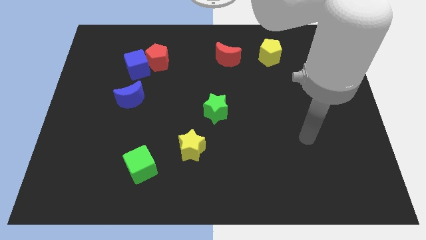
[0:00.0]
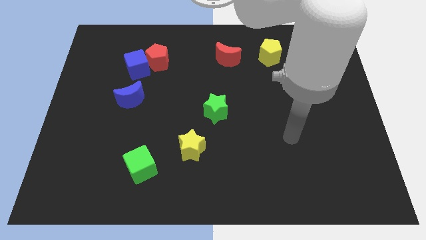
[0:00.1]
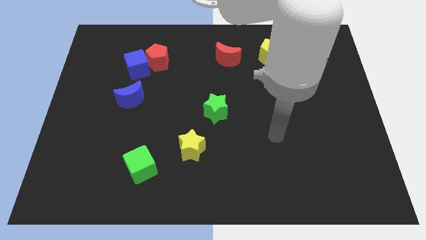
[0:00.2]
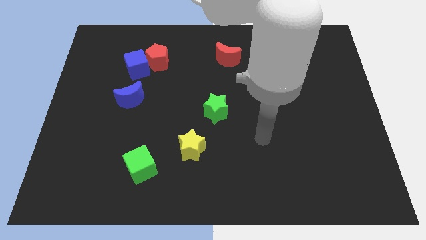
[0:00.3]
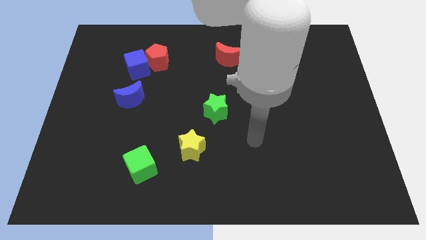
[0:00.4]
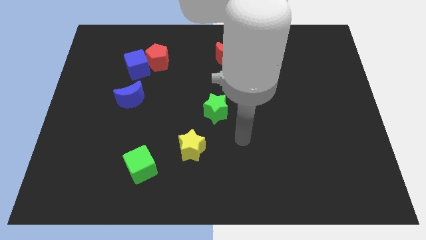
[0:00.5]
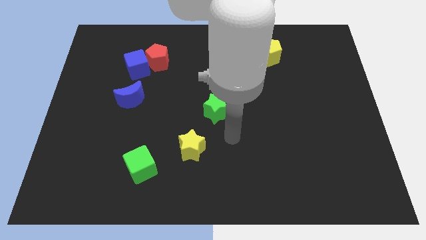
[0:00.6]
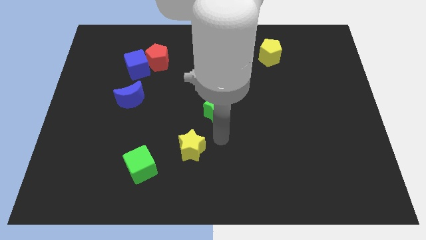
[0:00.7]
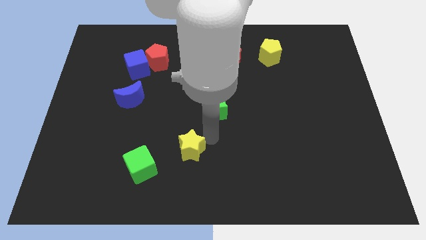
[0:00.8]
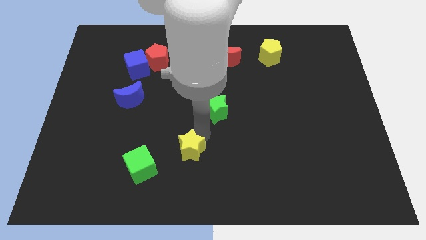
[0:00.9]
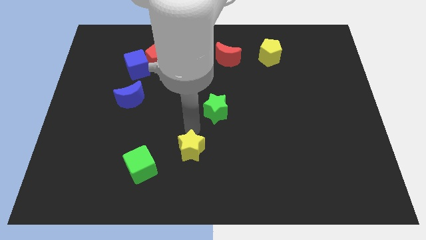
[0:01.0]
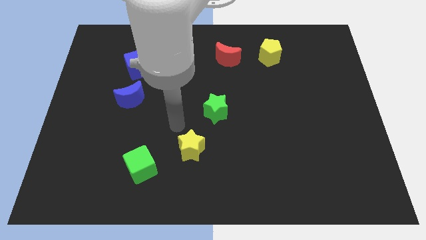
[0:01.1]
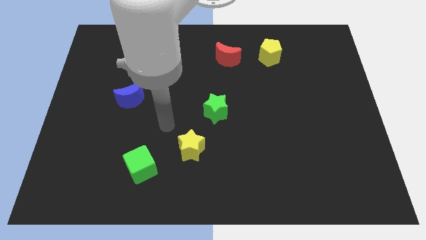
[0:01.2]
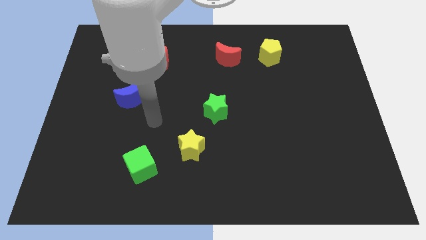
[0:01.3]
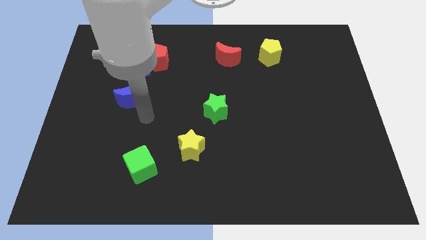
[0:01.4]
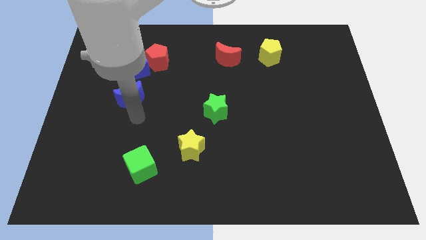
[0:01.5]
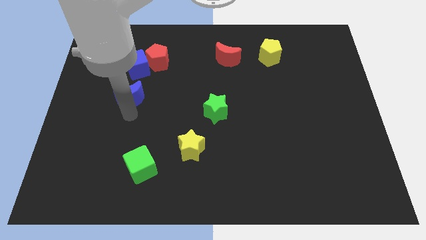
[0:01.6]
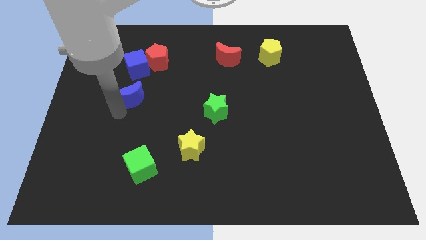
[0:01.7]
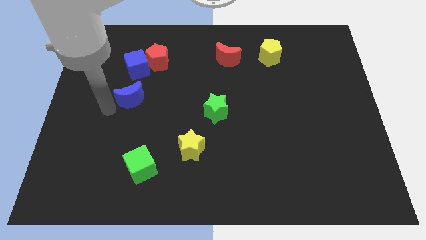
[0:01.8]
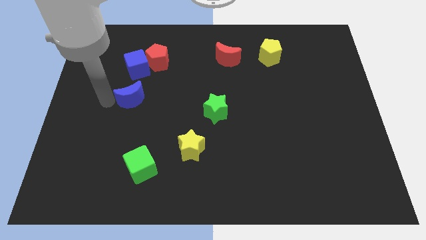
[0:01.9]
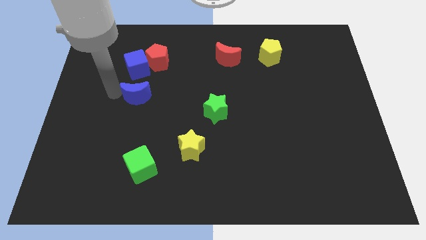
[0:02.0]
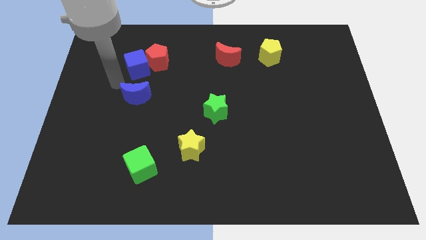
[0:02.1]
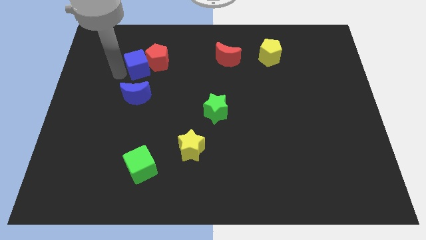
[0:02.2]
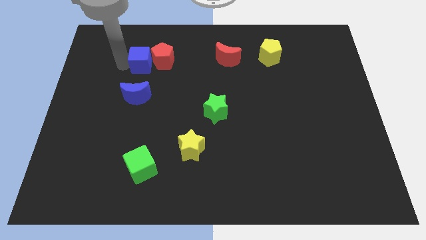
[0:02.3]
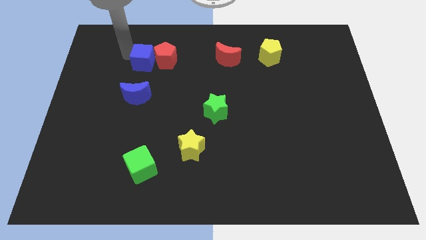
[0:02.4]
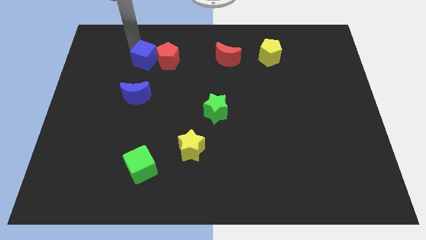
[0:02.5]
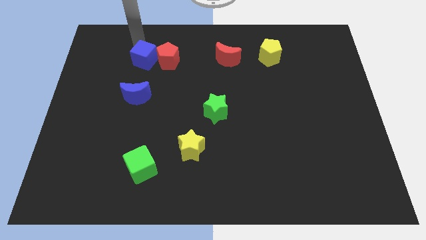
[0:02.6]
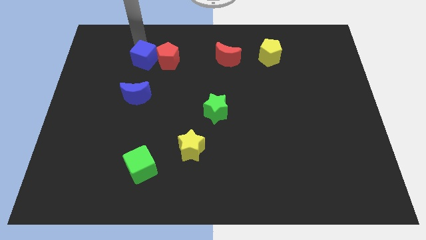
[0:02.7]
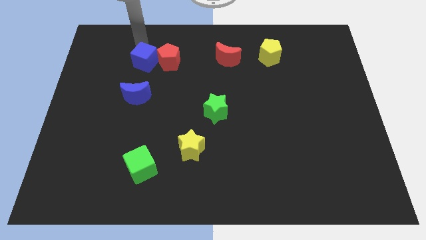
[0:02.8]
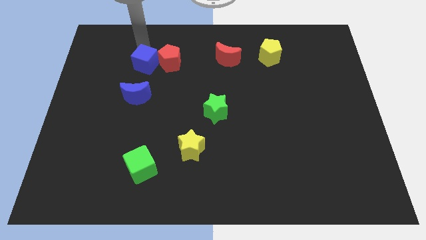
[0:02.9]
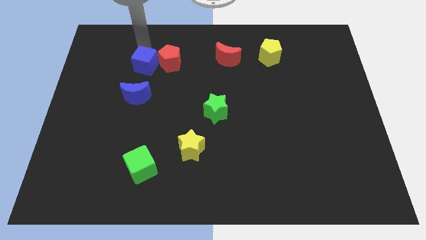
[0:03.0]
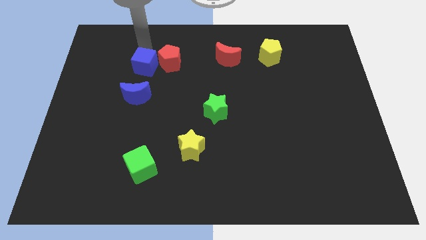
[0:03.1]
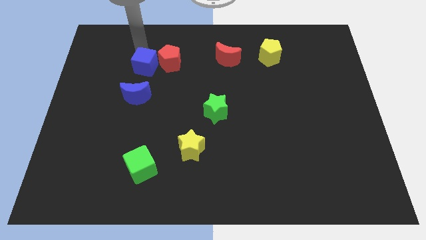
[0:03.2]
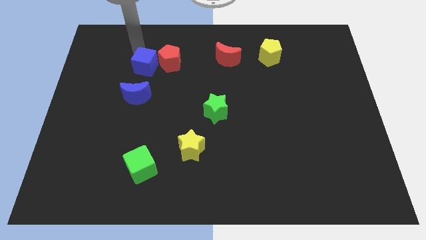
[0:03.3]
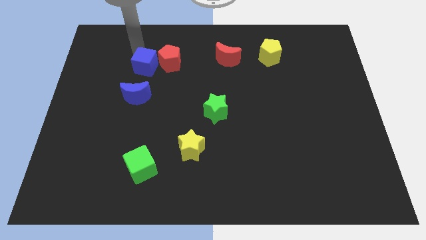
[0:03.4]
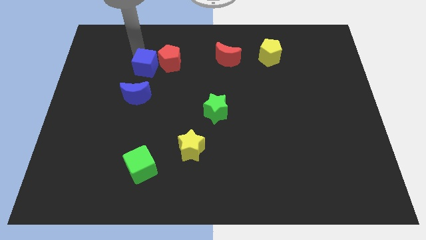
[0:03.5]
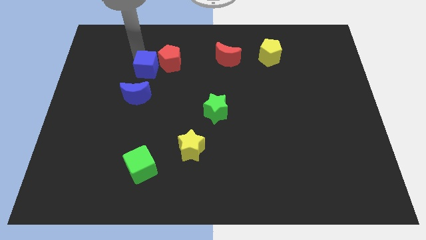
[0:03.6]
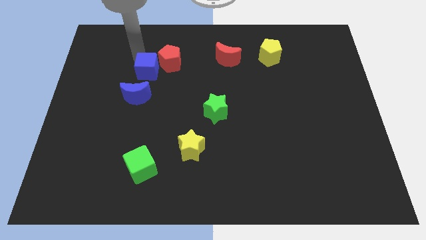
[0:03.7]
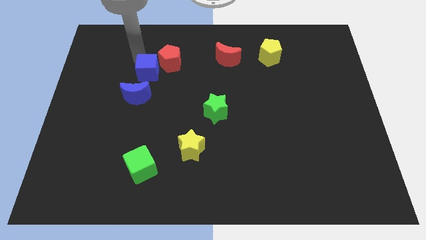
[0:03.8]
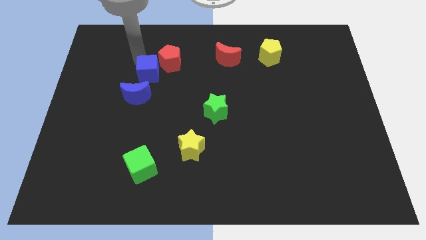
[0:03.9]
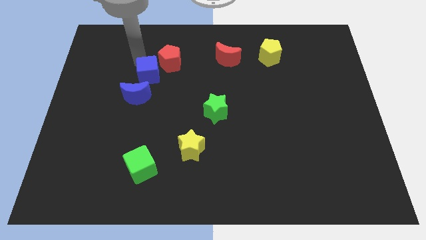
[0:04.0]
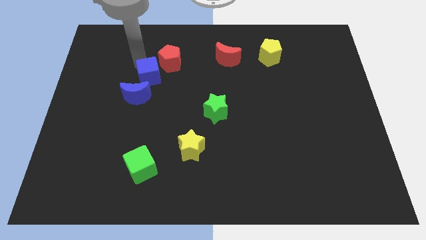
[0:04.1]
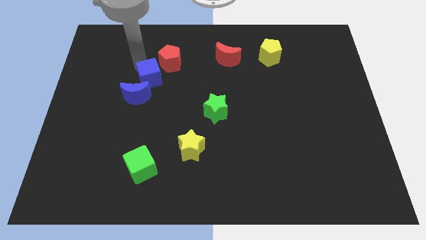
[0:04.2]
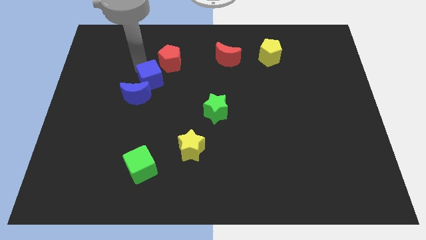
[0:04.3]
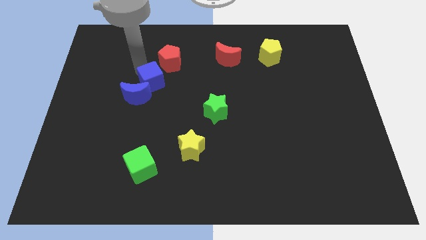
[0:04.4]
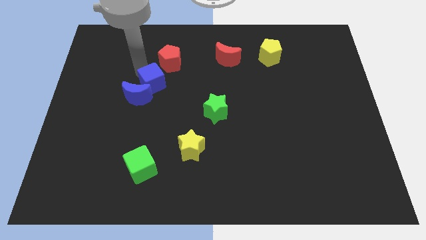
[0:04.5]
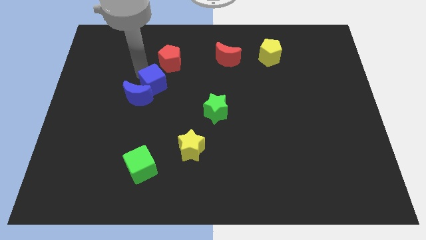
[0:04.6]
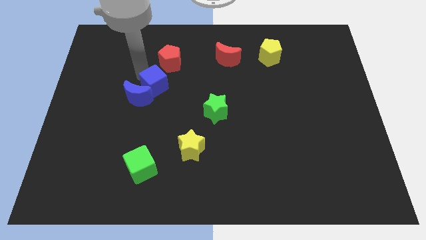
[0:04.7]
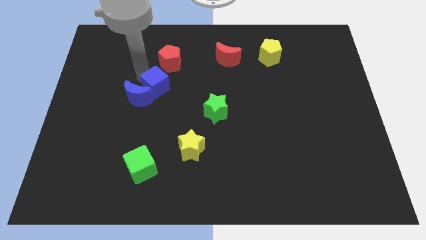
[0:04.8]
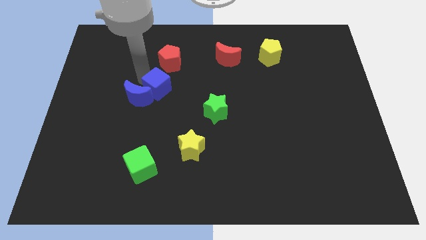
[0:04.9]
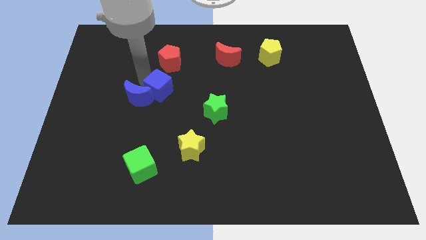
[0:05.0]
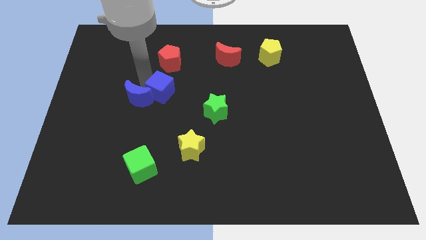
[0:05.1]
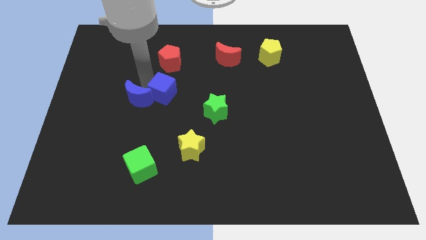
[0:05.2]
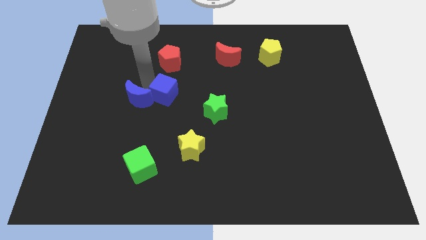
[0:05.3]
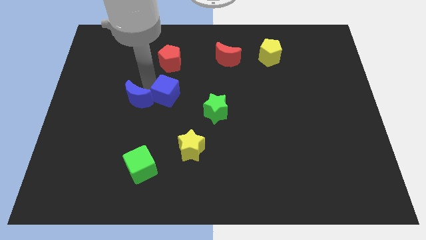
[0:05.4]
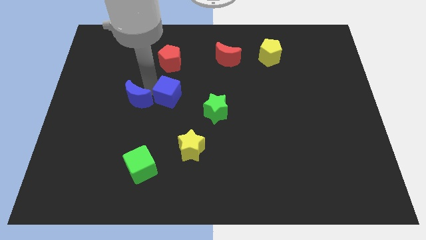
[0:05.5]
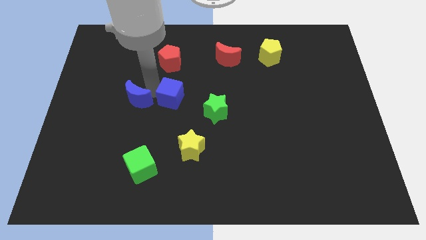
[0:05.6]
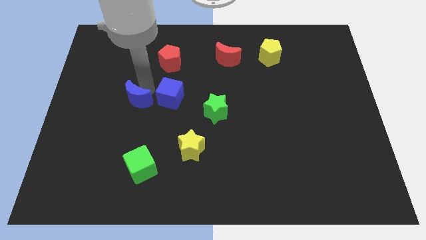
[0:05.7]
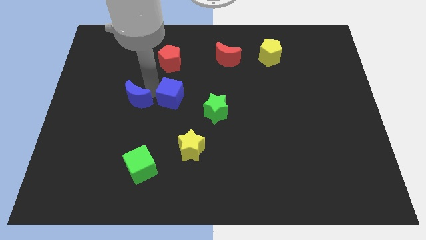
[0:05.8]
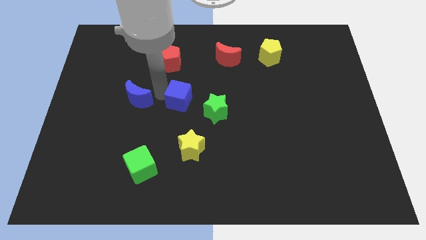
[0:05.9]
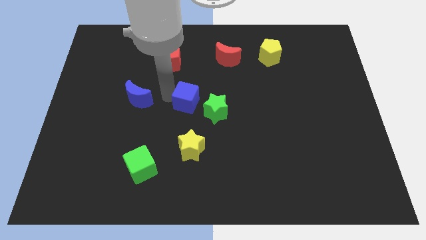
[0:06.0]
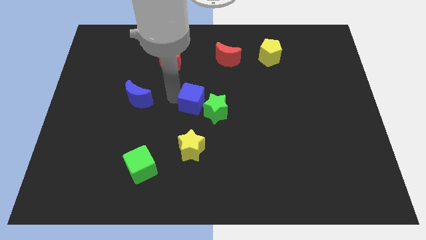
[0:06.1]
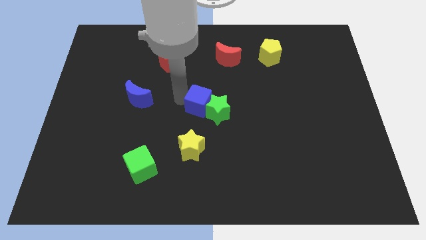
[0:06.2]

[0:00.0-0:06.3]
move the blue cube next to the green star

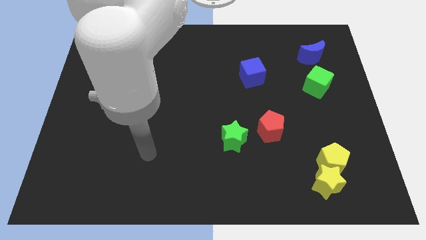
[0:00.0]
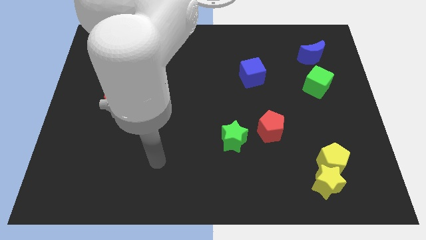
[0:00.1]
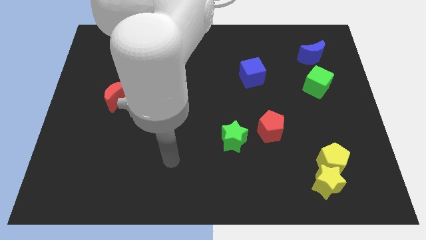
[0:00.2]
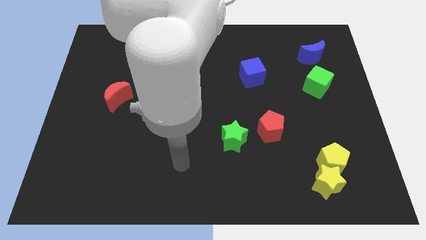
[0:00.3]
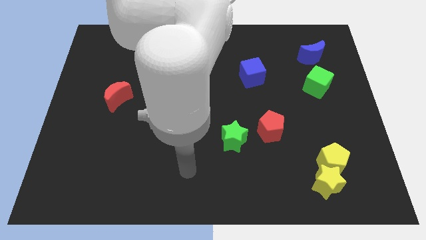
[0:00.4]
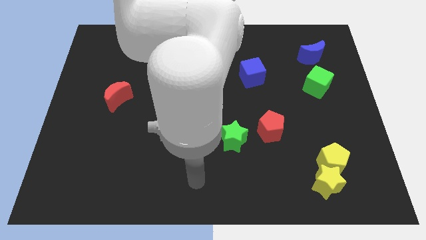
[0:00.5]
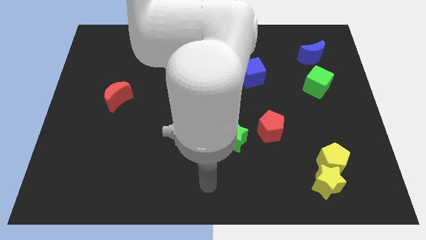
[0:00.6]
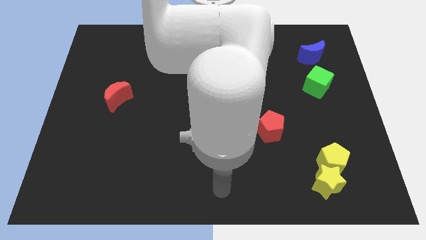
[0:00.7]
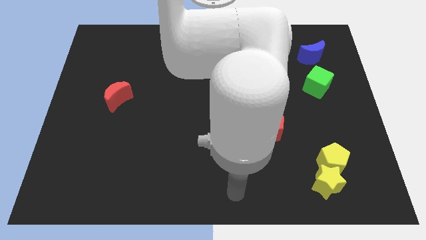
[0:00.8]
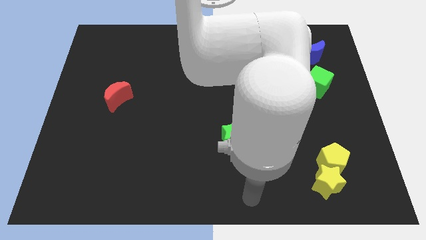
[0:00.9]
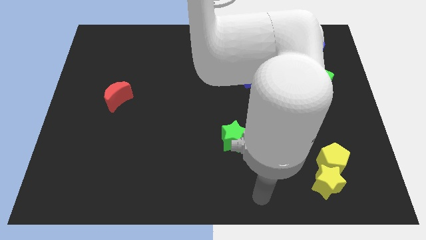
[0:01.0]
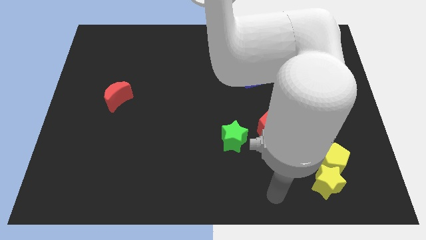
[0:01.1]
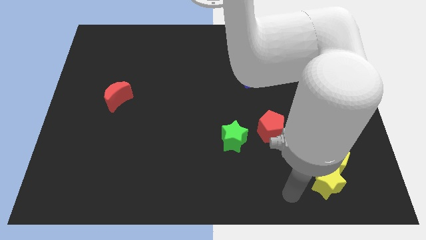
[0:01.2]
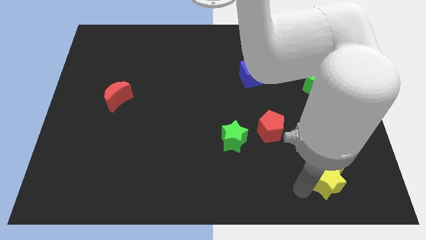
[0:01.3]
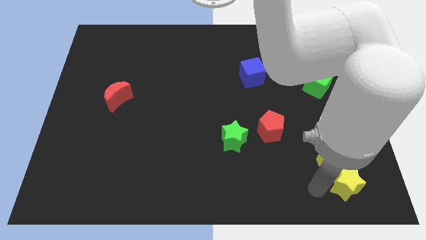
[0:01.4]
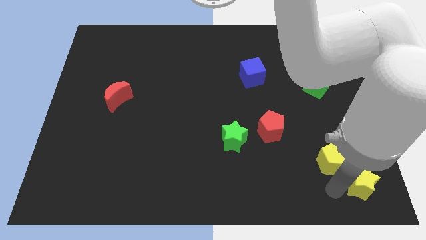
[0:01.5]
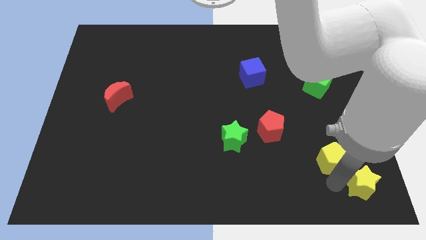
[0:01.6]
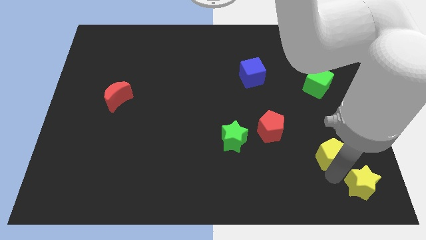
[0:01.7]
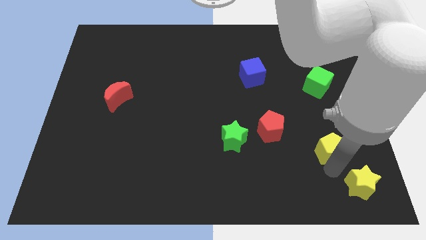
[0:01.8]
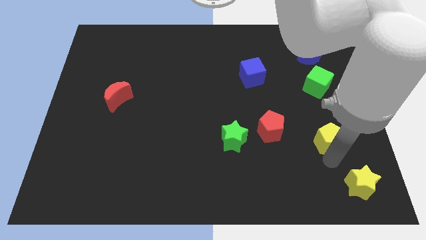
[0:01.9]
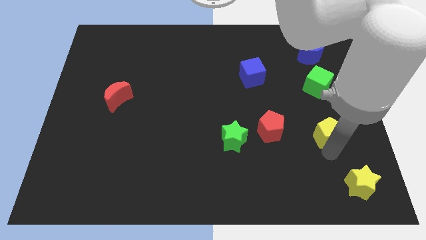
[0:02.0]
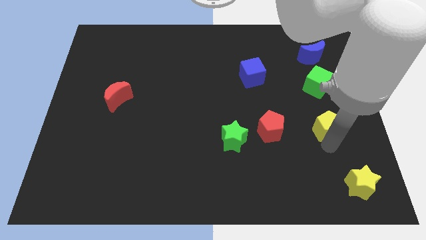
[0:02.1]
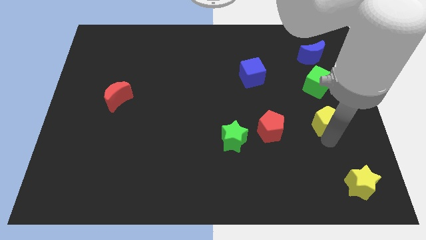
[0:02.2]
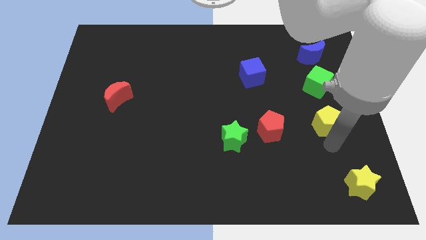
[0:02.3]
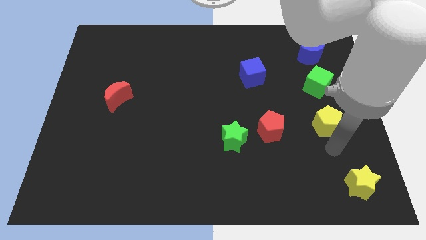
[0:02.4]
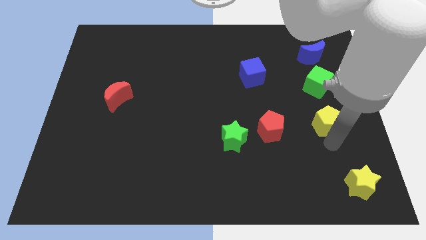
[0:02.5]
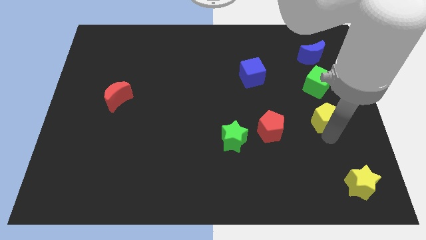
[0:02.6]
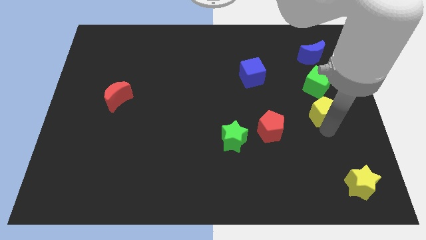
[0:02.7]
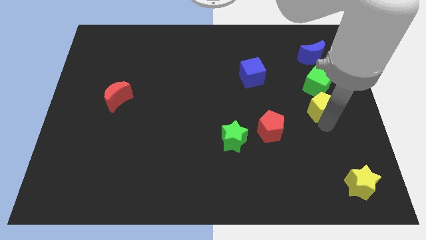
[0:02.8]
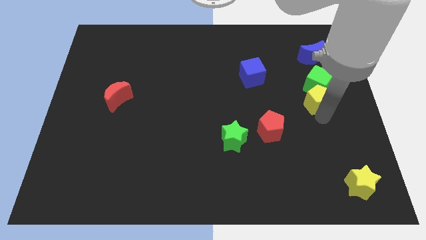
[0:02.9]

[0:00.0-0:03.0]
put the yellow pentagon close to the green cube
